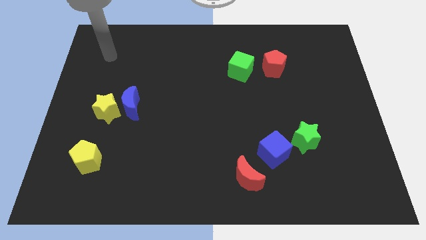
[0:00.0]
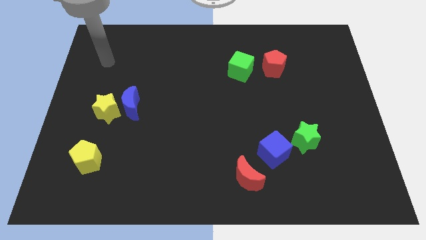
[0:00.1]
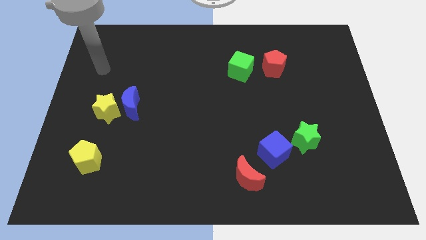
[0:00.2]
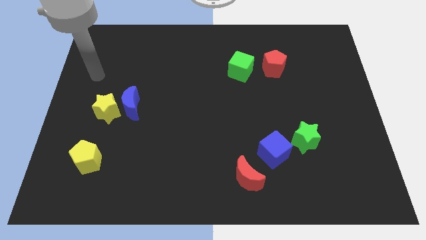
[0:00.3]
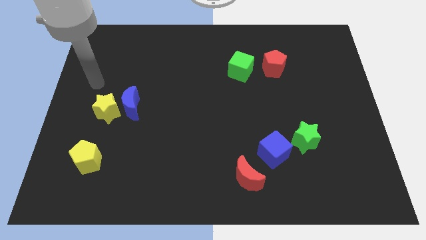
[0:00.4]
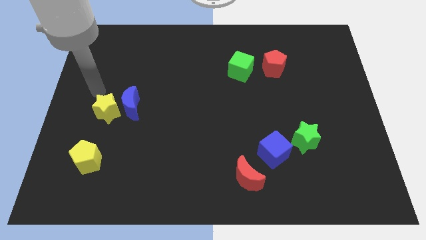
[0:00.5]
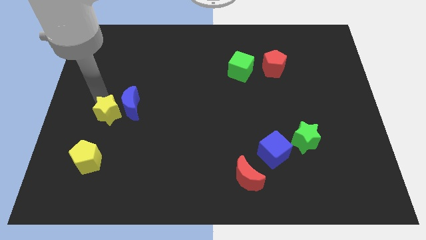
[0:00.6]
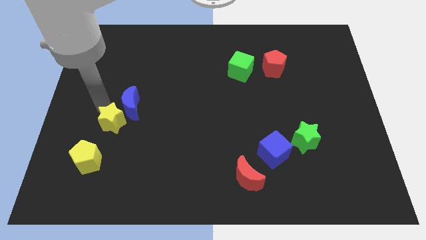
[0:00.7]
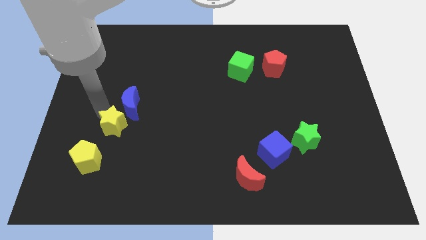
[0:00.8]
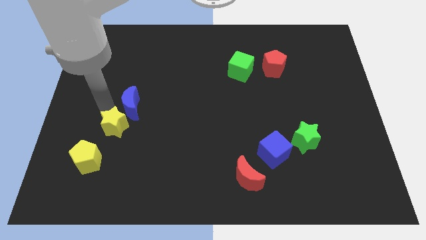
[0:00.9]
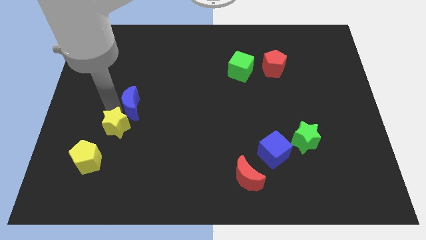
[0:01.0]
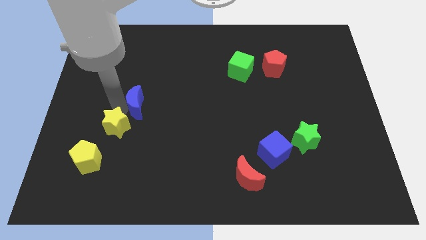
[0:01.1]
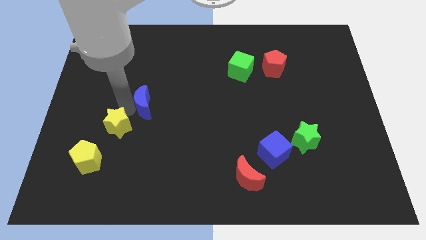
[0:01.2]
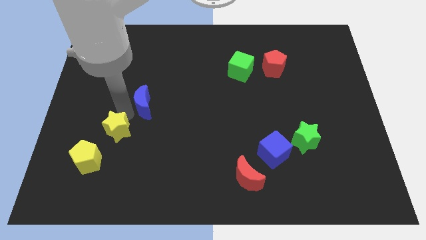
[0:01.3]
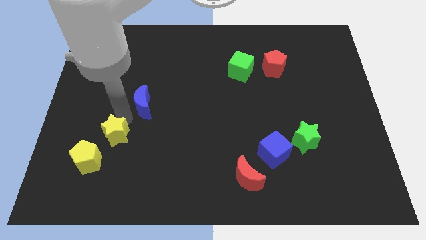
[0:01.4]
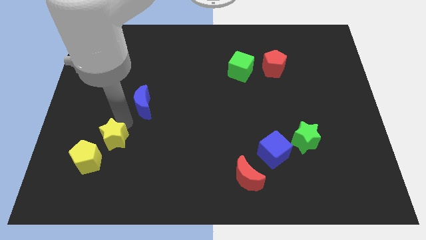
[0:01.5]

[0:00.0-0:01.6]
pull the blue moon apart from the yellow star

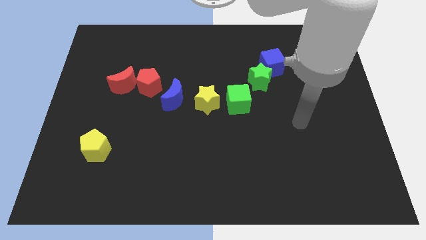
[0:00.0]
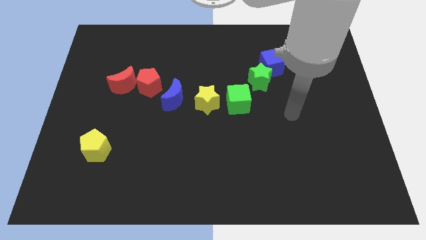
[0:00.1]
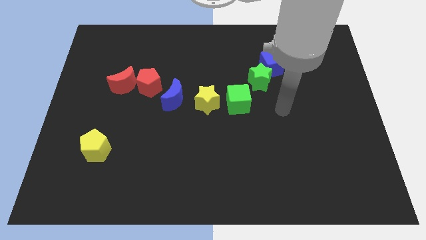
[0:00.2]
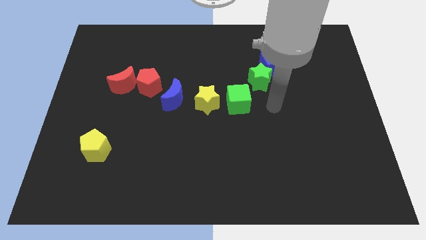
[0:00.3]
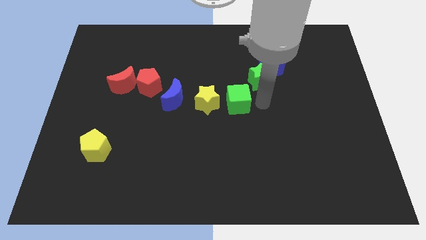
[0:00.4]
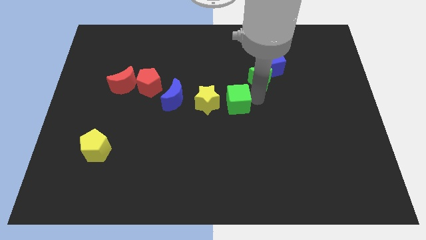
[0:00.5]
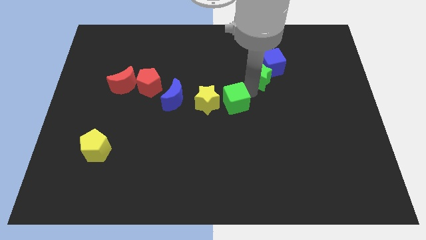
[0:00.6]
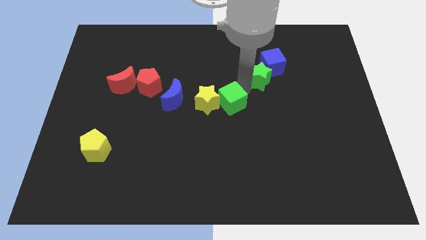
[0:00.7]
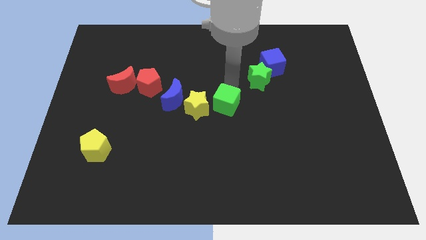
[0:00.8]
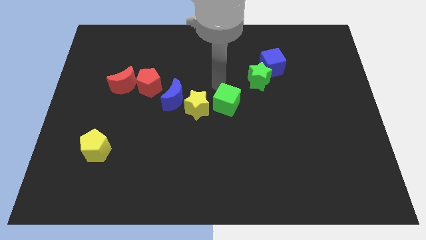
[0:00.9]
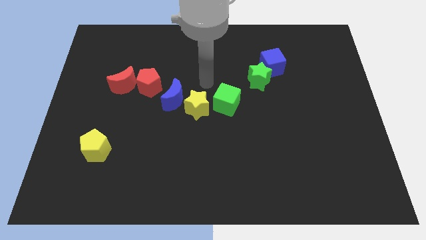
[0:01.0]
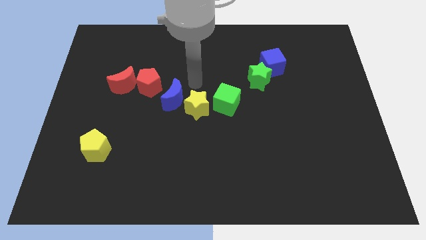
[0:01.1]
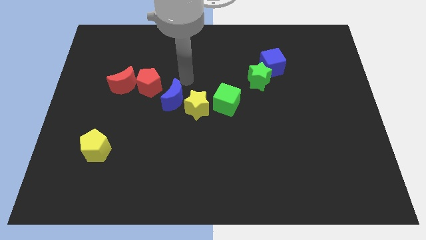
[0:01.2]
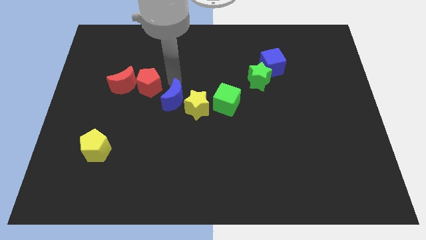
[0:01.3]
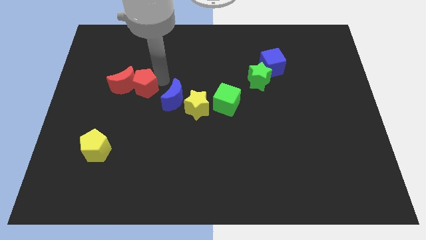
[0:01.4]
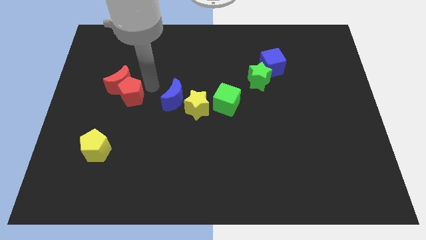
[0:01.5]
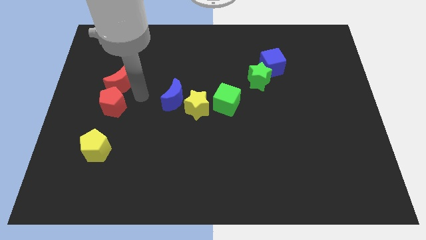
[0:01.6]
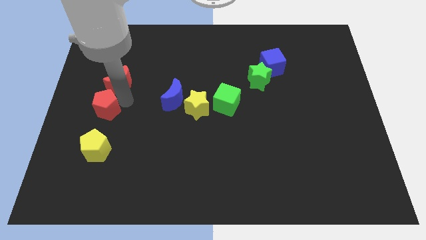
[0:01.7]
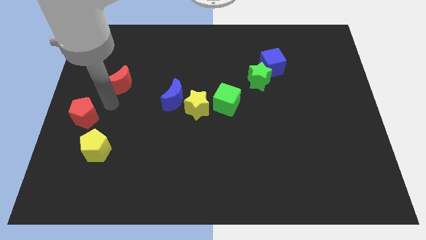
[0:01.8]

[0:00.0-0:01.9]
move the red moon away from the red pentagon

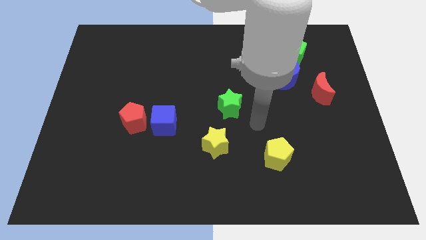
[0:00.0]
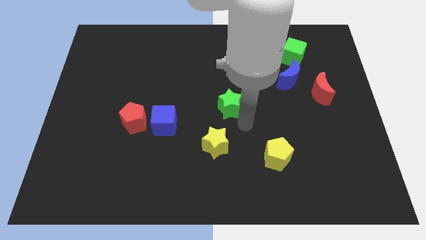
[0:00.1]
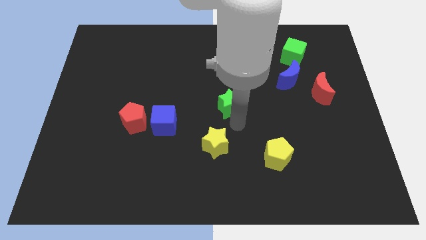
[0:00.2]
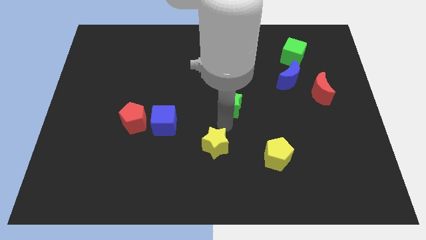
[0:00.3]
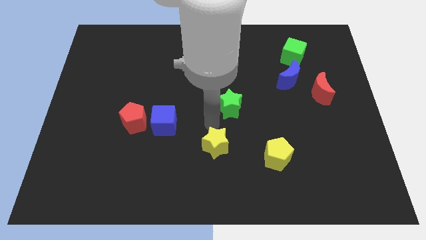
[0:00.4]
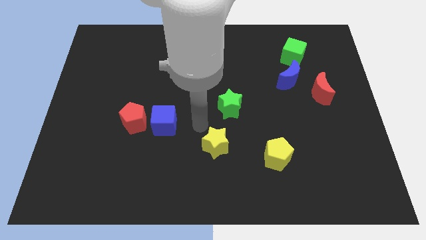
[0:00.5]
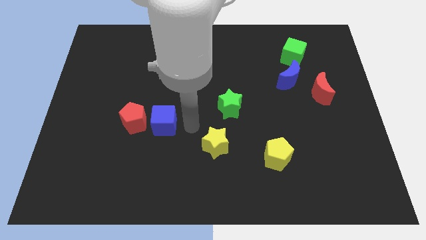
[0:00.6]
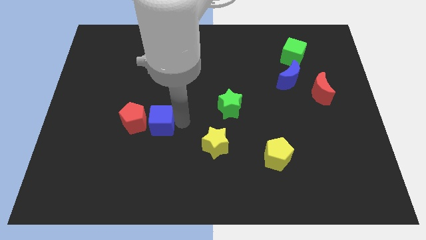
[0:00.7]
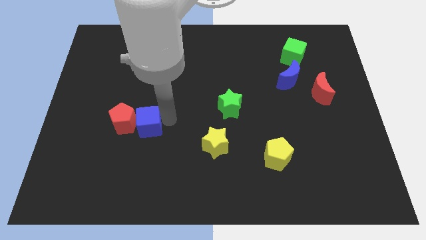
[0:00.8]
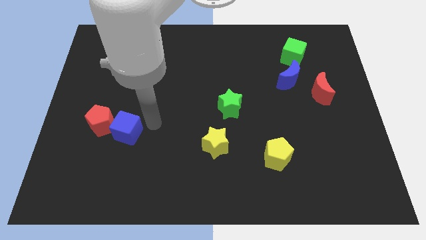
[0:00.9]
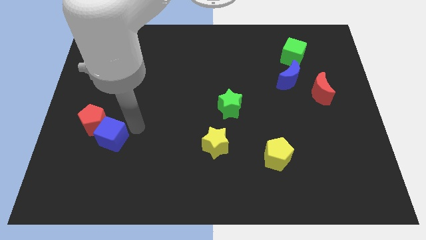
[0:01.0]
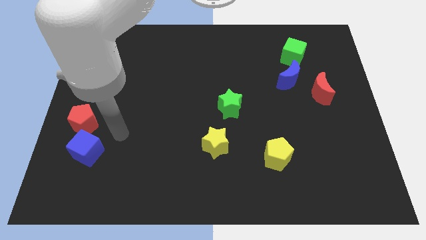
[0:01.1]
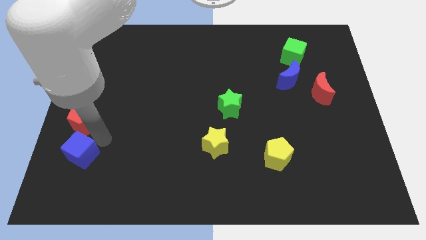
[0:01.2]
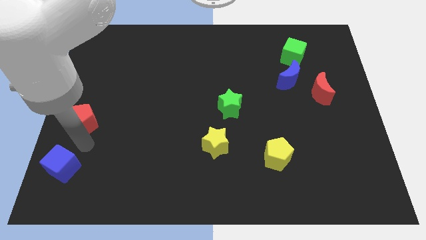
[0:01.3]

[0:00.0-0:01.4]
separate the red pentagon from the blue cube

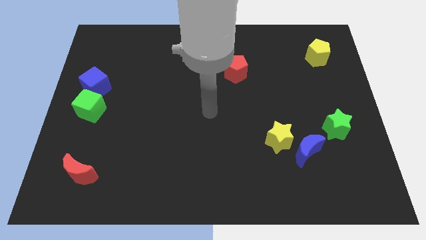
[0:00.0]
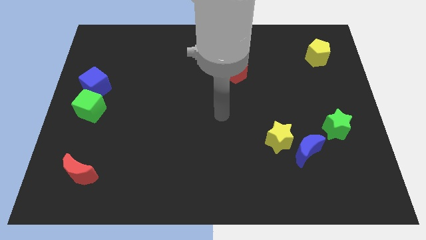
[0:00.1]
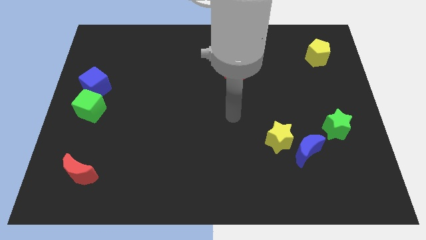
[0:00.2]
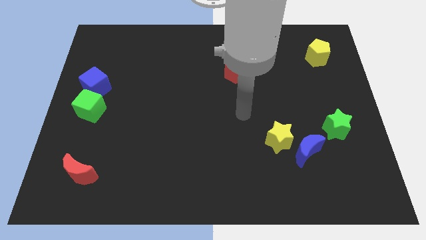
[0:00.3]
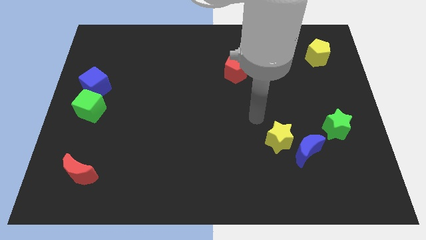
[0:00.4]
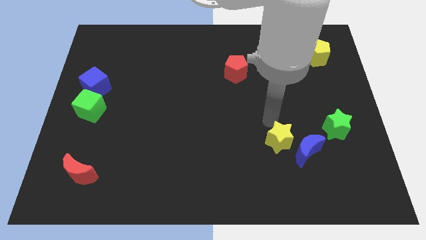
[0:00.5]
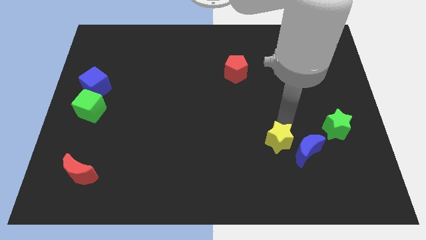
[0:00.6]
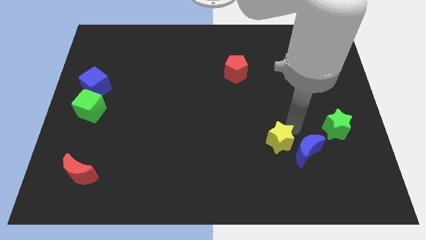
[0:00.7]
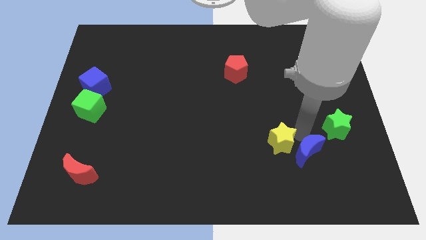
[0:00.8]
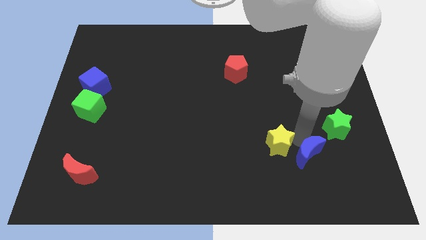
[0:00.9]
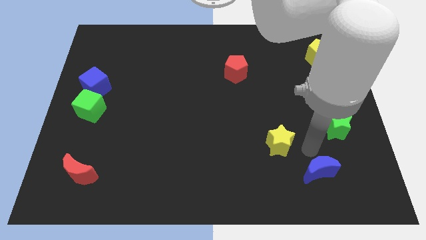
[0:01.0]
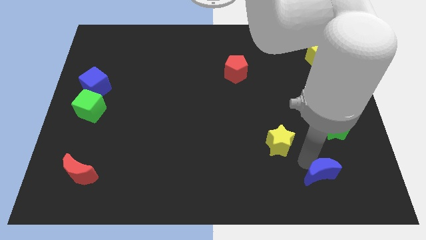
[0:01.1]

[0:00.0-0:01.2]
pull the yellow star apart from the blue moon

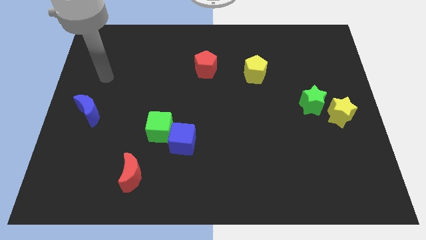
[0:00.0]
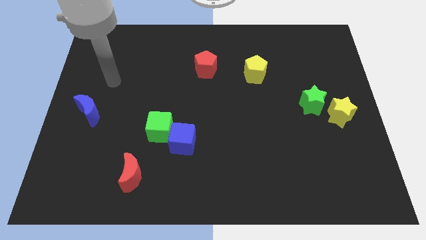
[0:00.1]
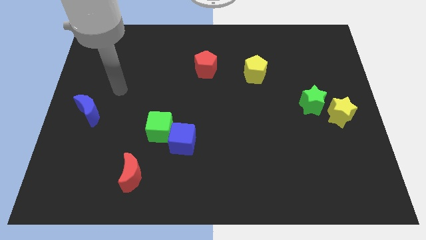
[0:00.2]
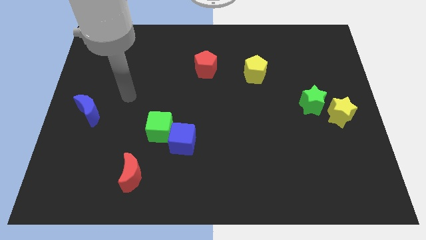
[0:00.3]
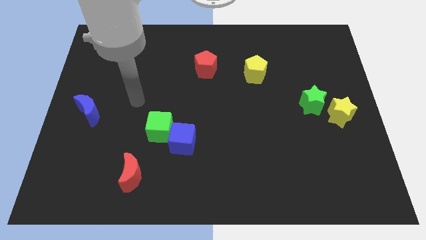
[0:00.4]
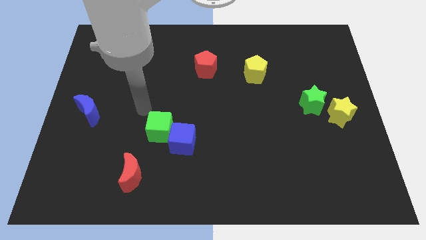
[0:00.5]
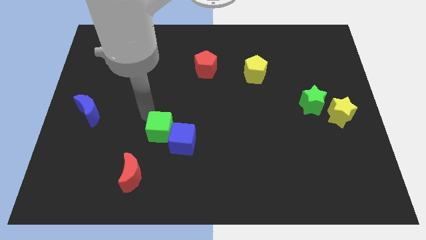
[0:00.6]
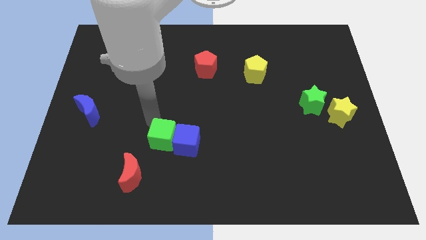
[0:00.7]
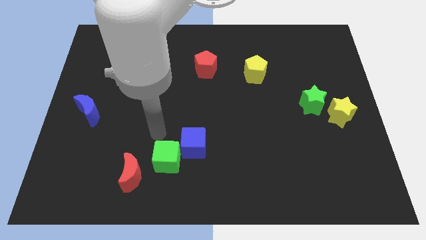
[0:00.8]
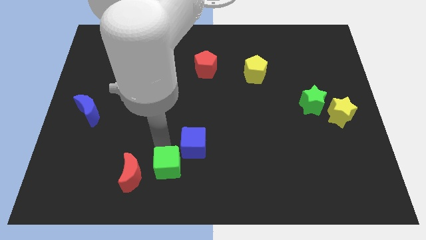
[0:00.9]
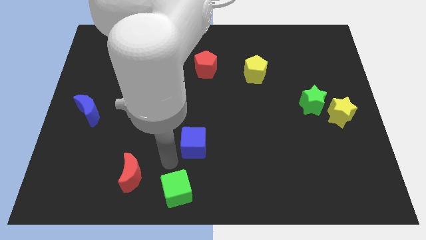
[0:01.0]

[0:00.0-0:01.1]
separate the blue cube from the green cube

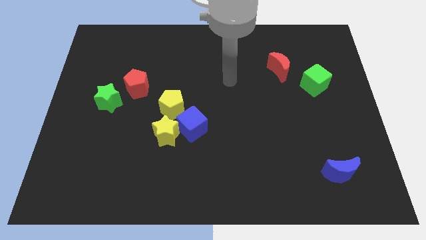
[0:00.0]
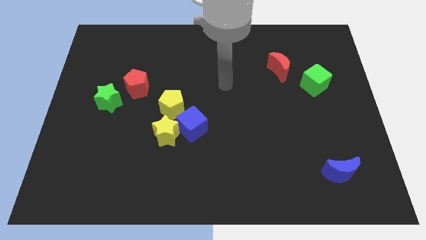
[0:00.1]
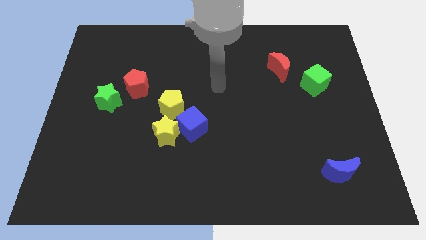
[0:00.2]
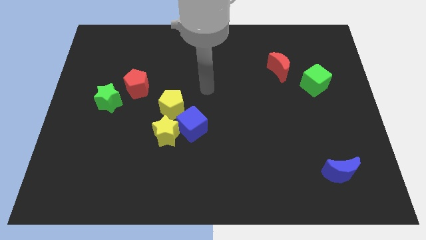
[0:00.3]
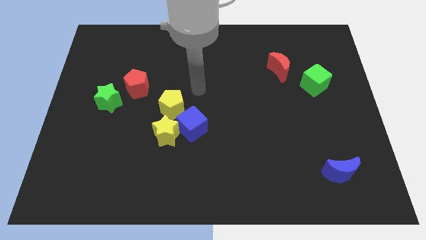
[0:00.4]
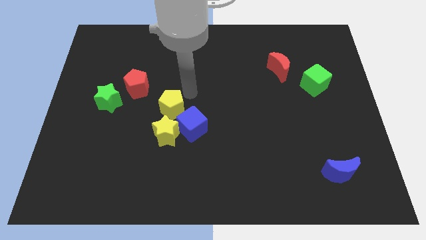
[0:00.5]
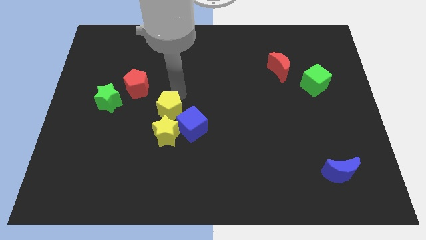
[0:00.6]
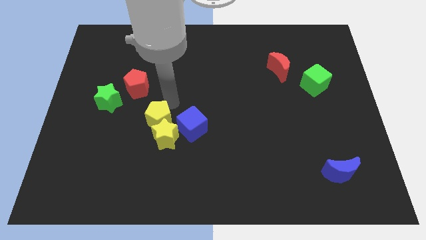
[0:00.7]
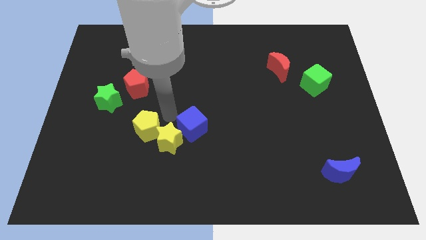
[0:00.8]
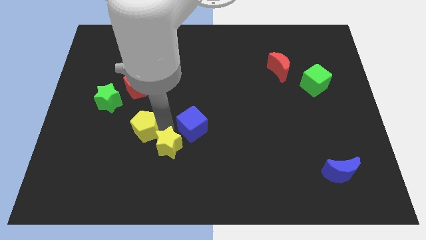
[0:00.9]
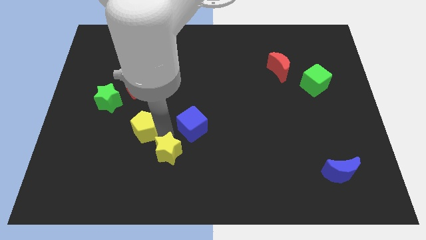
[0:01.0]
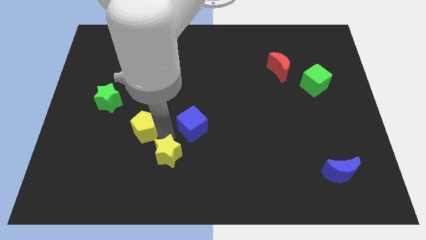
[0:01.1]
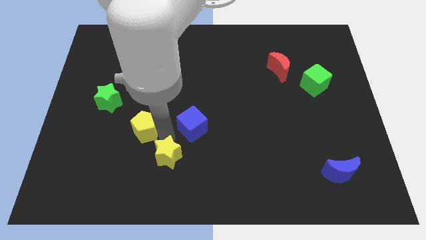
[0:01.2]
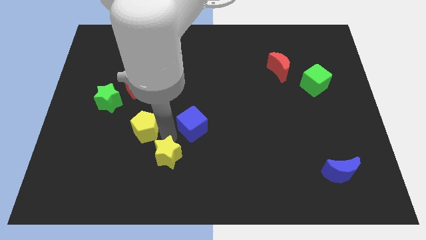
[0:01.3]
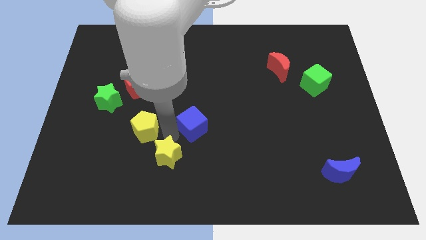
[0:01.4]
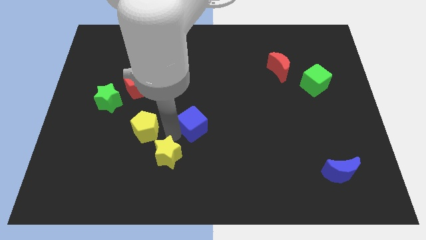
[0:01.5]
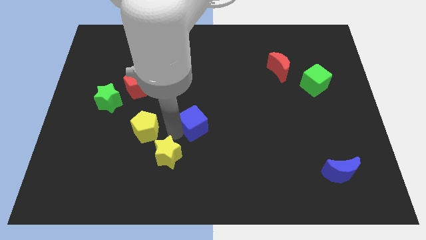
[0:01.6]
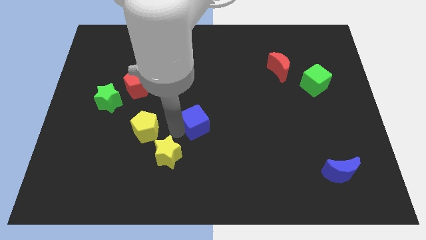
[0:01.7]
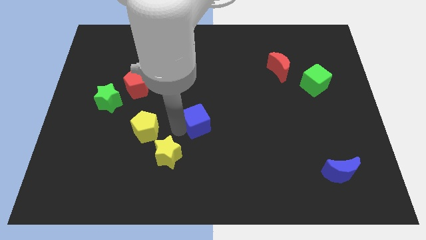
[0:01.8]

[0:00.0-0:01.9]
separate the blue cube from the yellow star and yellow pentagon

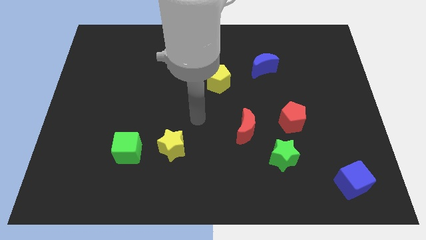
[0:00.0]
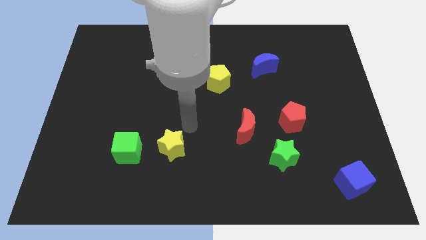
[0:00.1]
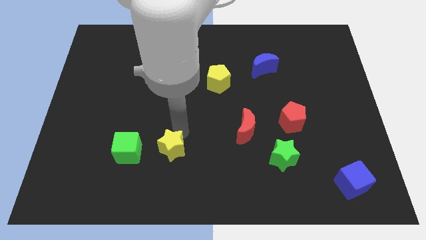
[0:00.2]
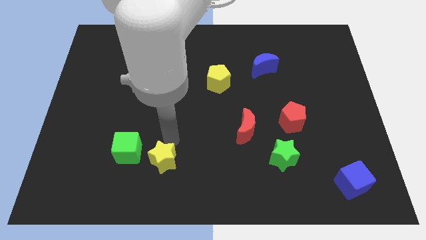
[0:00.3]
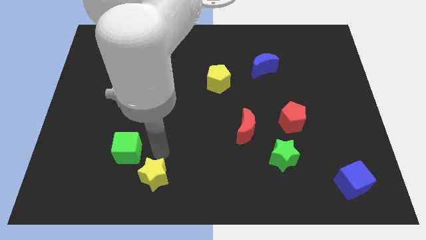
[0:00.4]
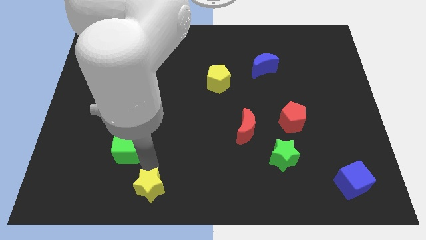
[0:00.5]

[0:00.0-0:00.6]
separate the green cube from the yellow star
